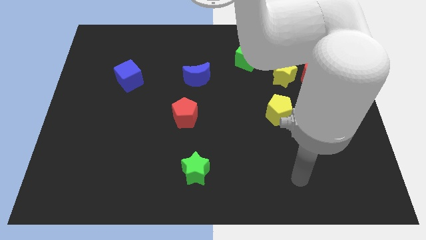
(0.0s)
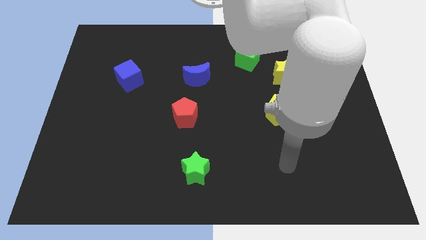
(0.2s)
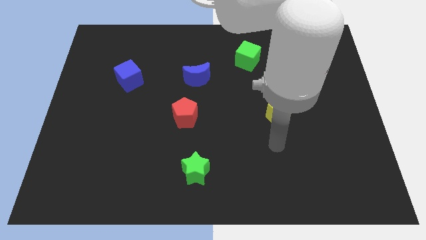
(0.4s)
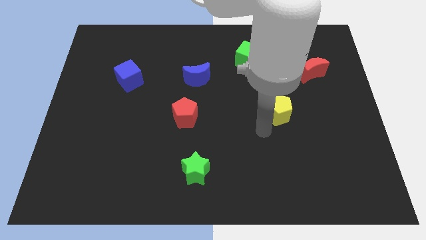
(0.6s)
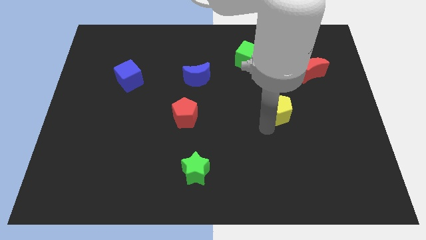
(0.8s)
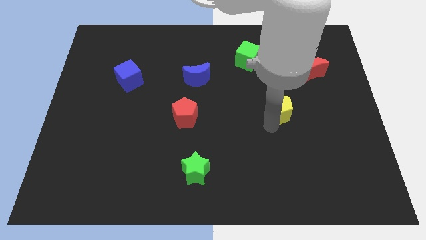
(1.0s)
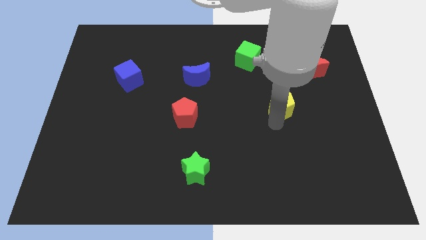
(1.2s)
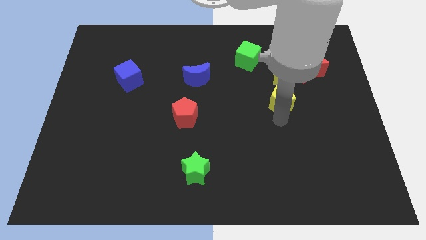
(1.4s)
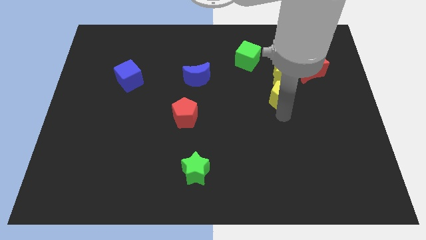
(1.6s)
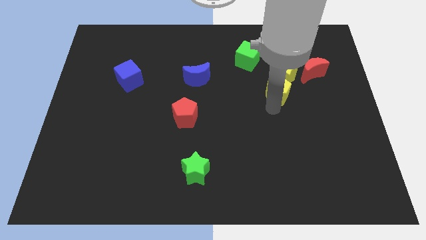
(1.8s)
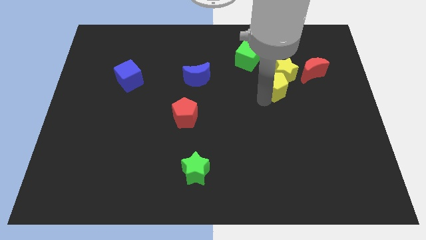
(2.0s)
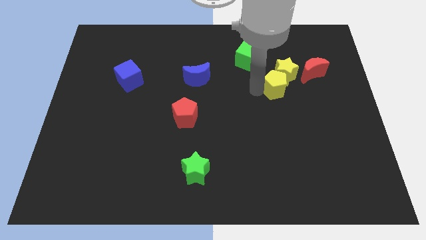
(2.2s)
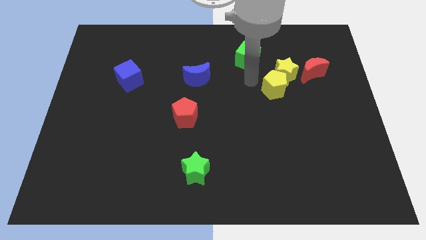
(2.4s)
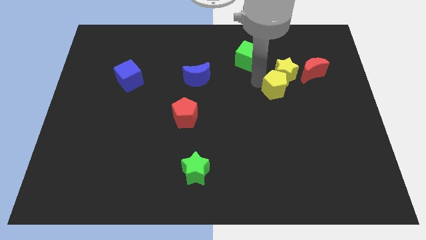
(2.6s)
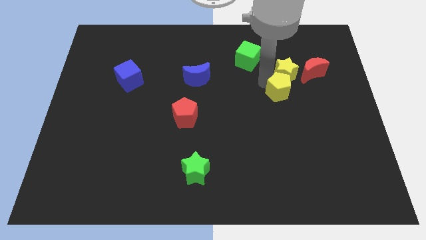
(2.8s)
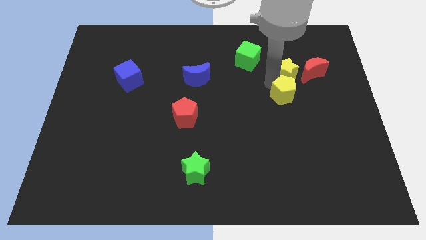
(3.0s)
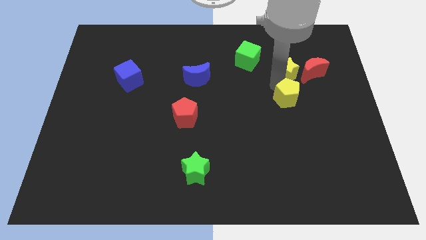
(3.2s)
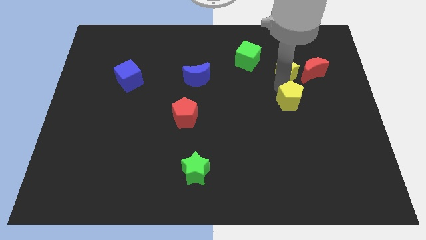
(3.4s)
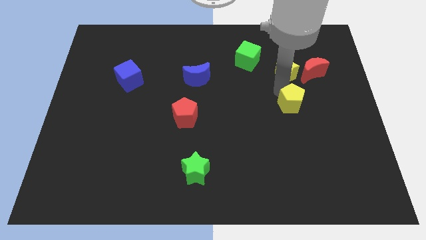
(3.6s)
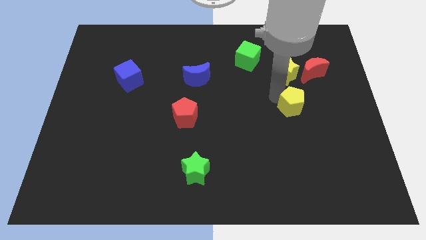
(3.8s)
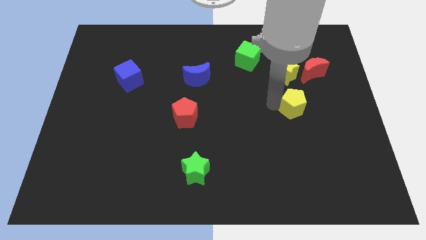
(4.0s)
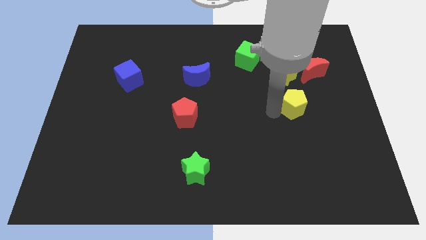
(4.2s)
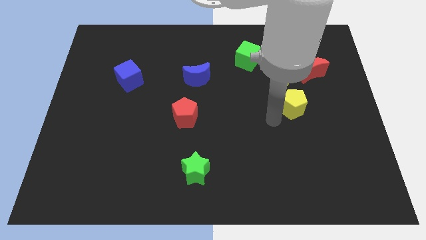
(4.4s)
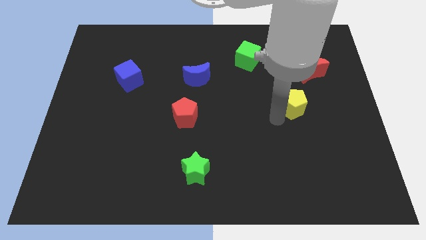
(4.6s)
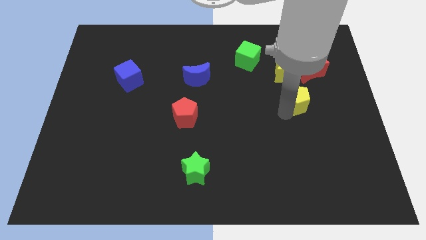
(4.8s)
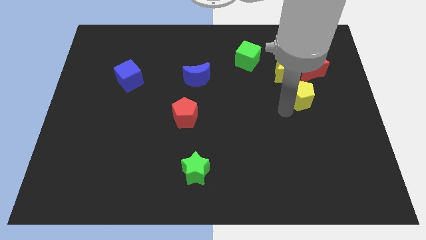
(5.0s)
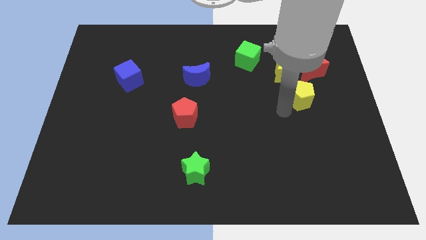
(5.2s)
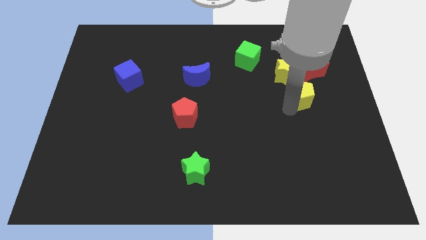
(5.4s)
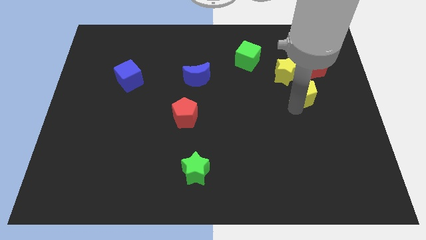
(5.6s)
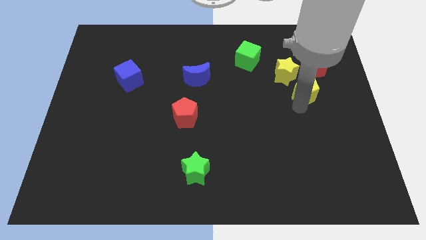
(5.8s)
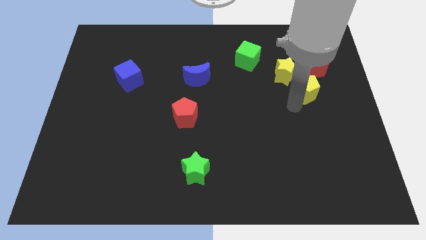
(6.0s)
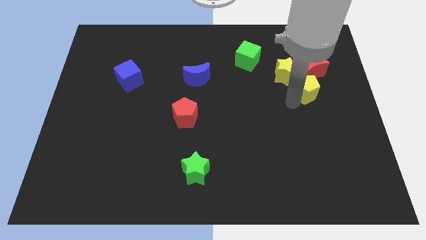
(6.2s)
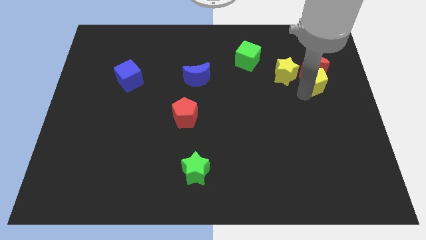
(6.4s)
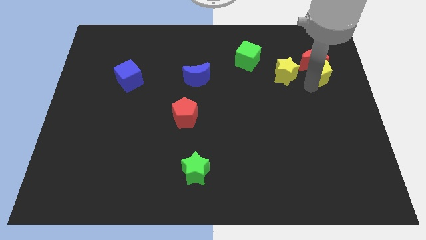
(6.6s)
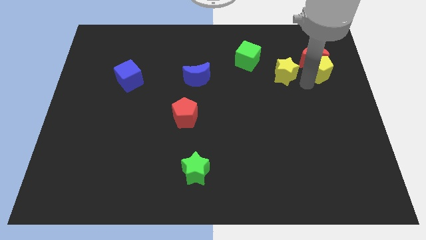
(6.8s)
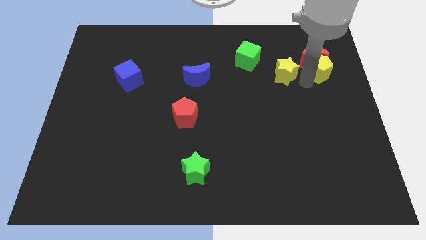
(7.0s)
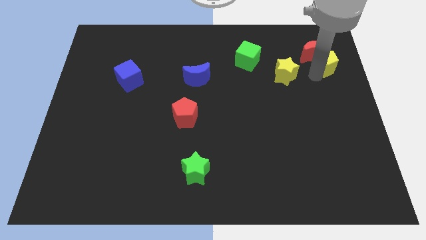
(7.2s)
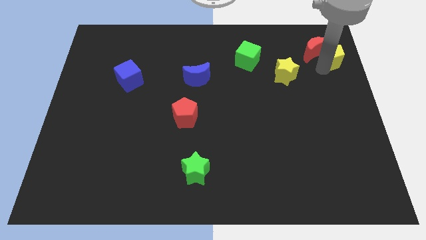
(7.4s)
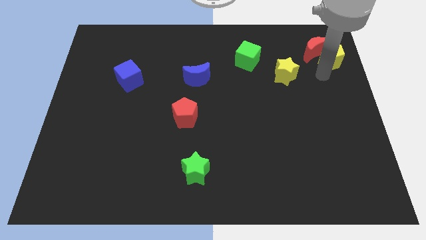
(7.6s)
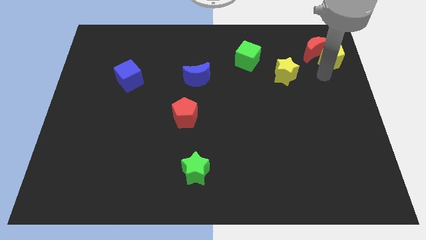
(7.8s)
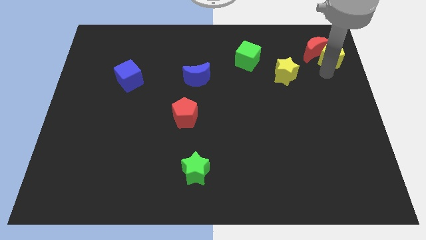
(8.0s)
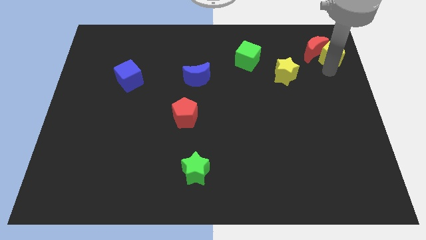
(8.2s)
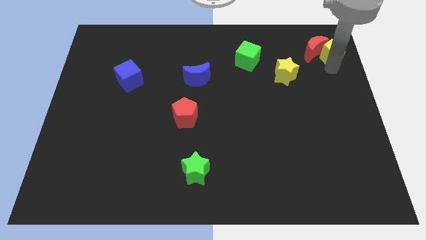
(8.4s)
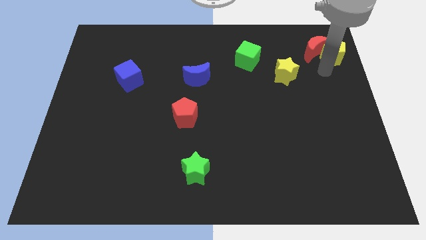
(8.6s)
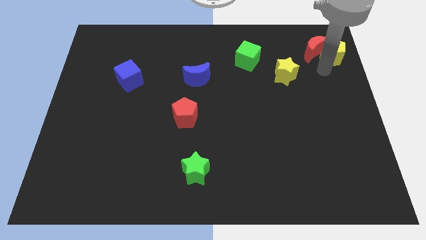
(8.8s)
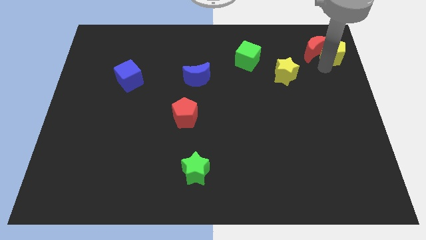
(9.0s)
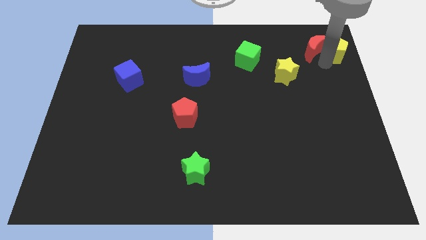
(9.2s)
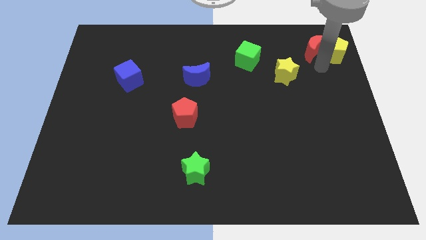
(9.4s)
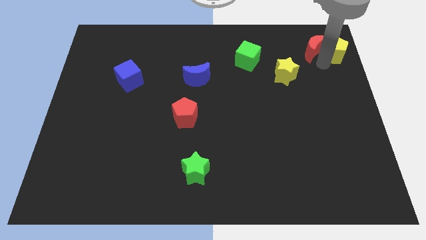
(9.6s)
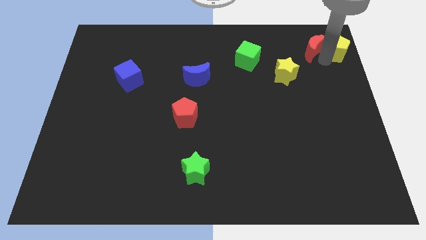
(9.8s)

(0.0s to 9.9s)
put the yellow pentagon to the top right

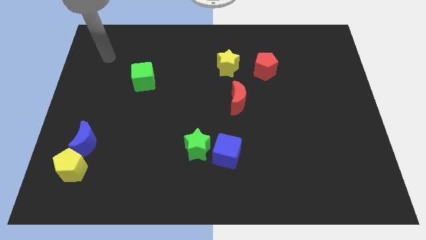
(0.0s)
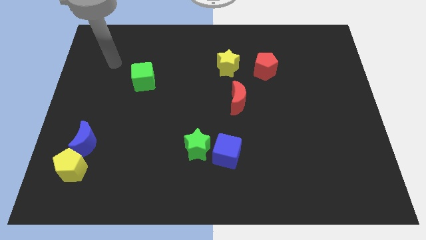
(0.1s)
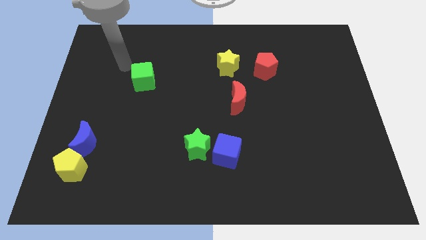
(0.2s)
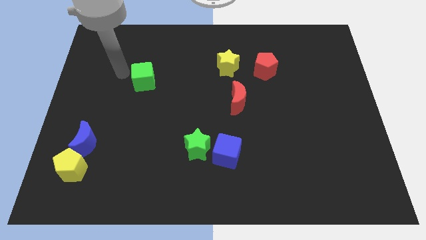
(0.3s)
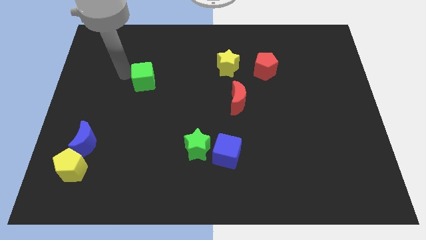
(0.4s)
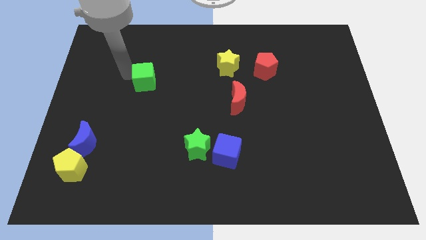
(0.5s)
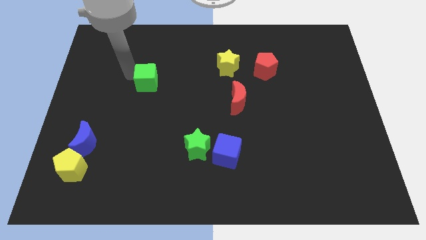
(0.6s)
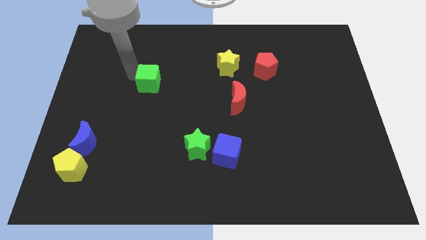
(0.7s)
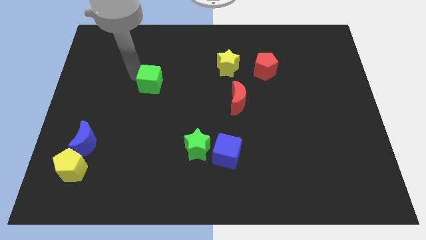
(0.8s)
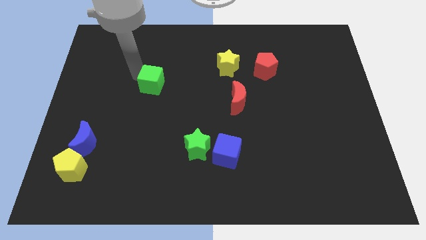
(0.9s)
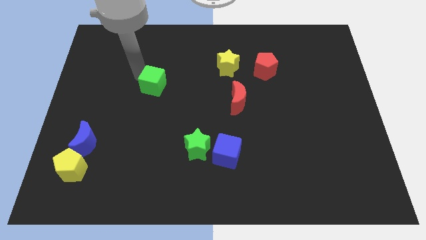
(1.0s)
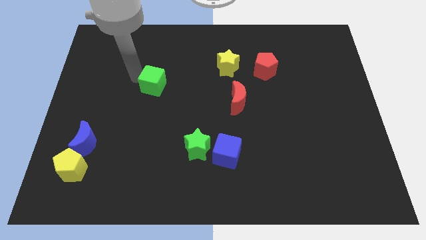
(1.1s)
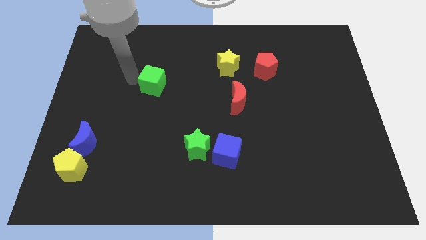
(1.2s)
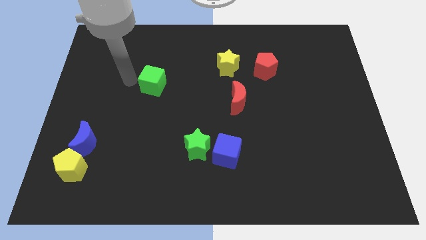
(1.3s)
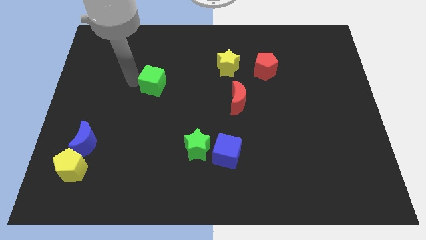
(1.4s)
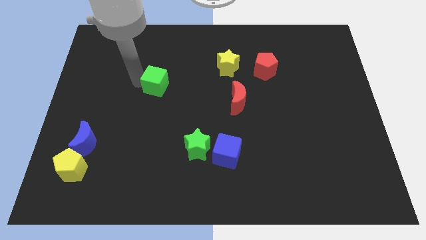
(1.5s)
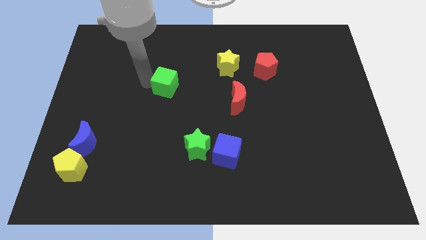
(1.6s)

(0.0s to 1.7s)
move the green cube to the center
